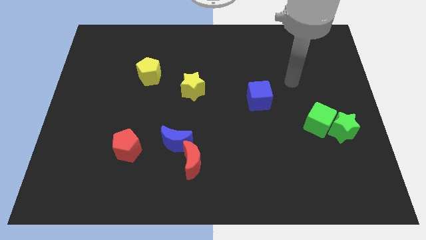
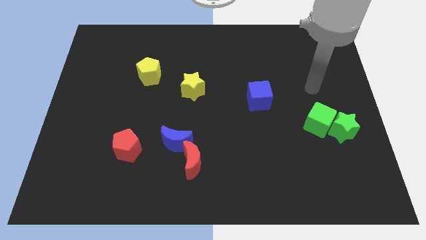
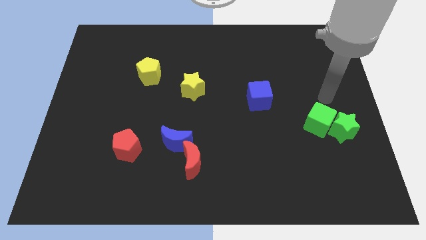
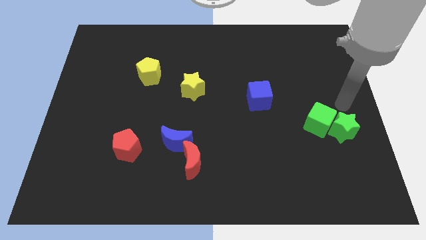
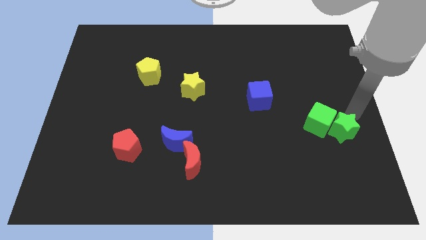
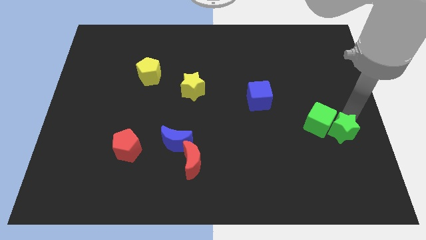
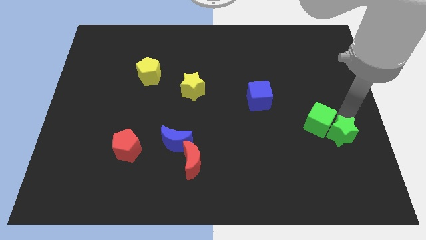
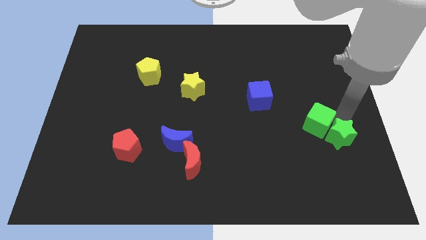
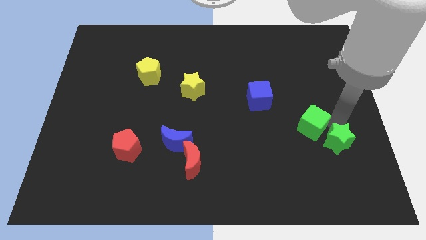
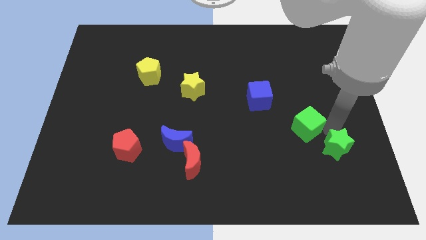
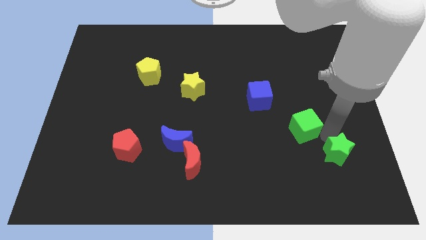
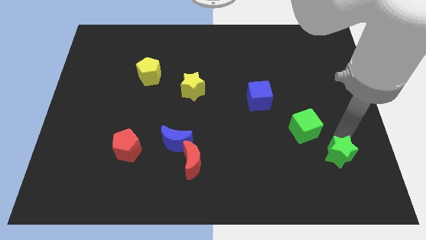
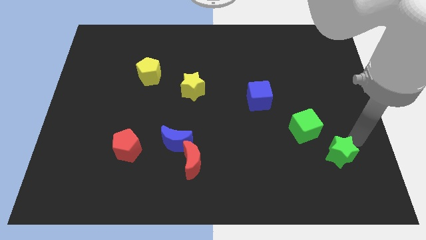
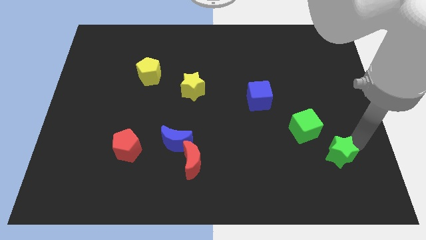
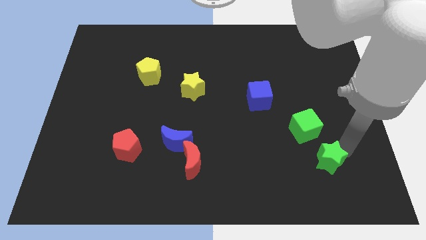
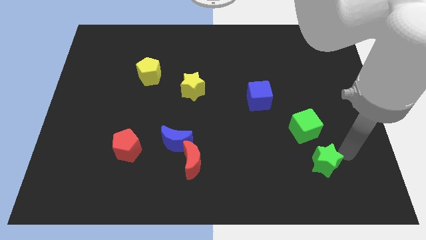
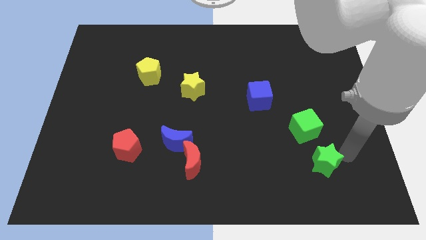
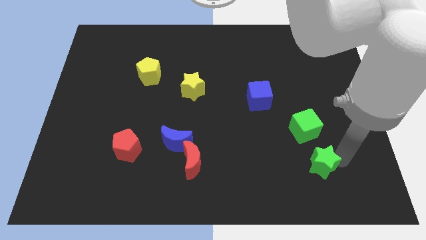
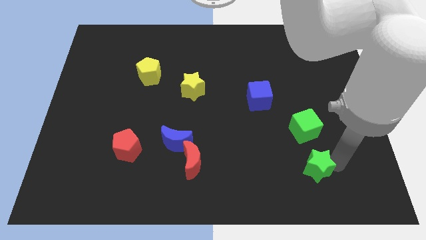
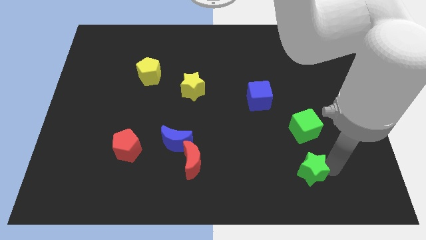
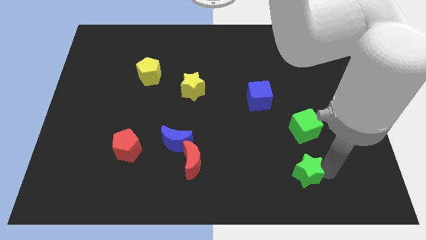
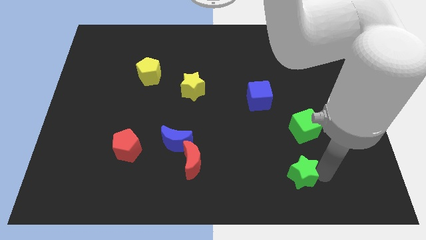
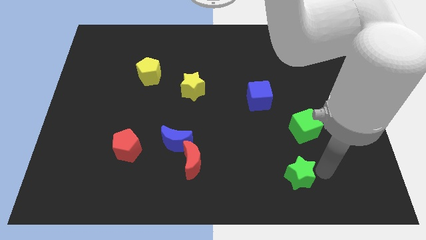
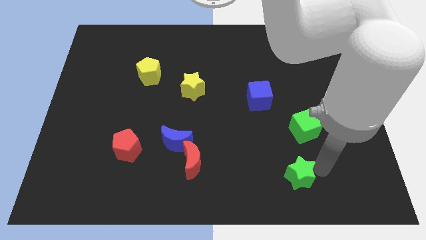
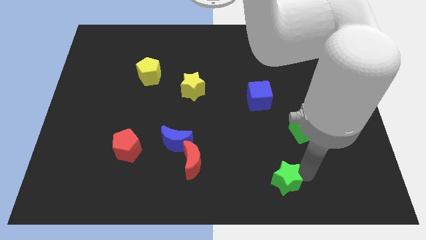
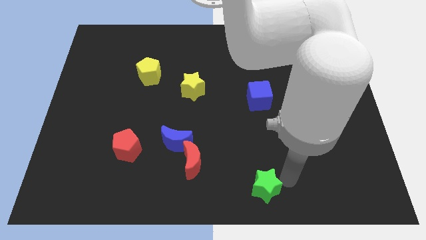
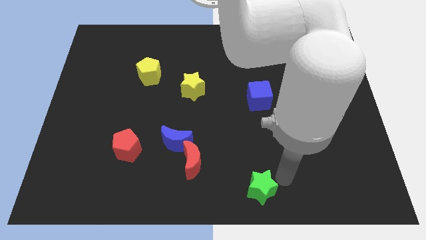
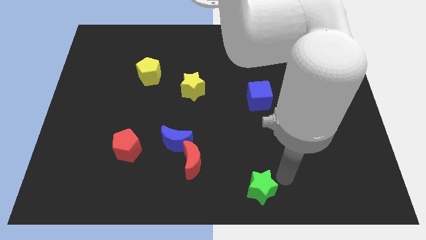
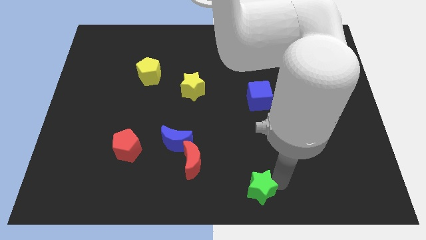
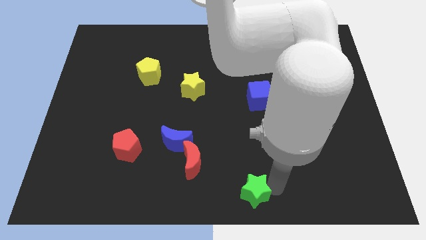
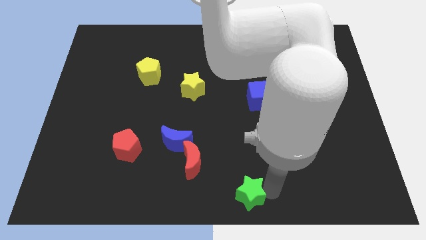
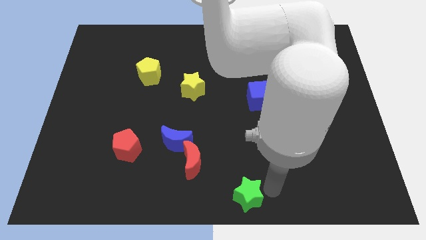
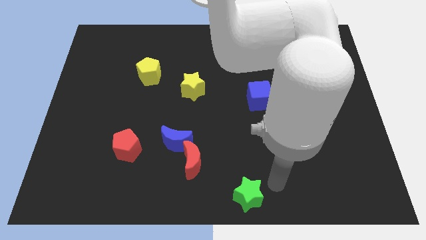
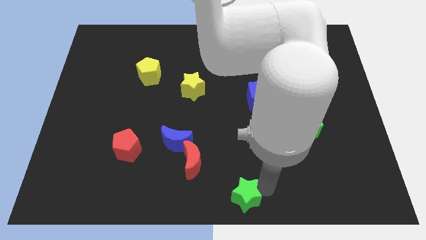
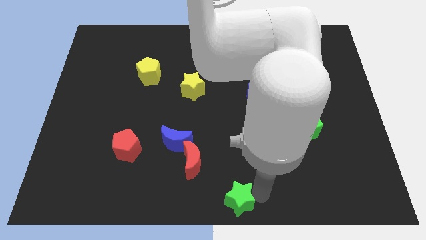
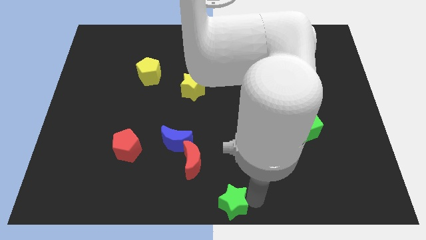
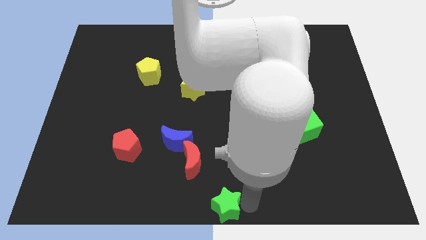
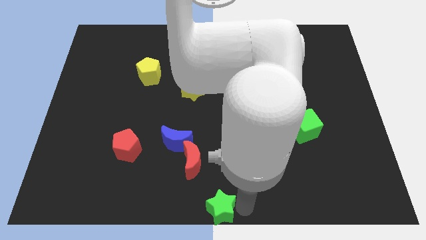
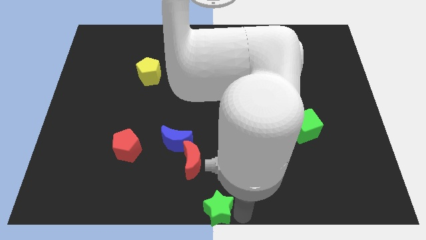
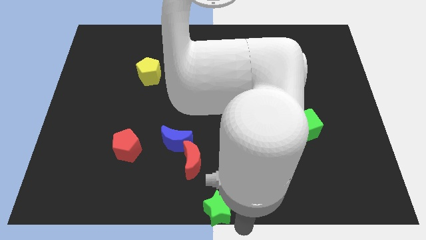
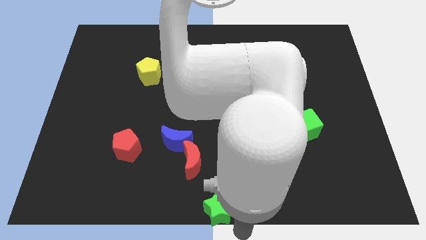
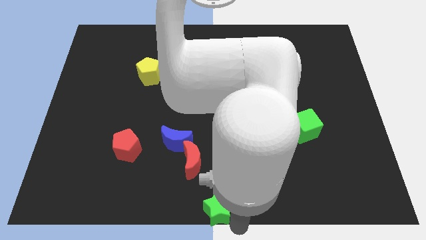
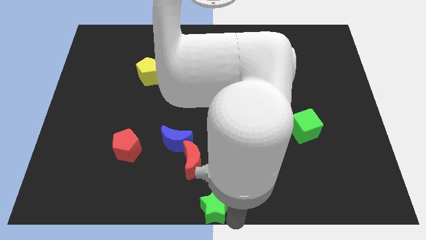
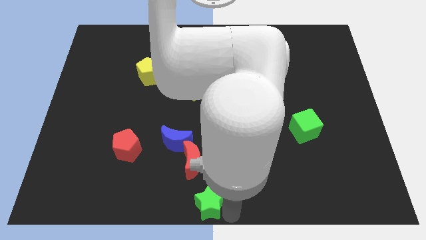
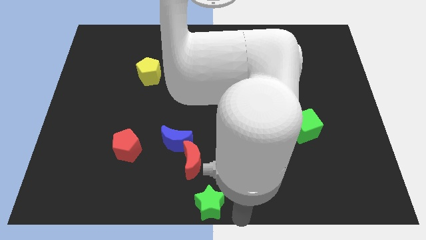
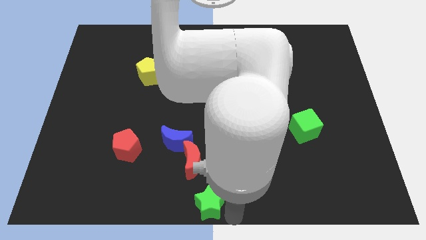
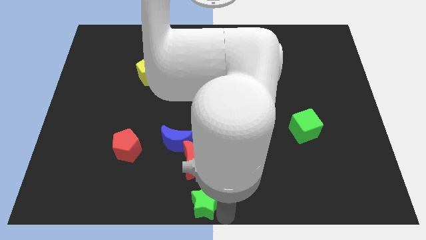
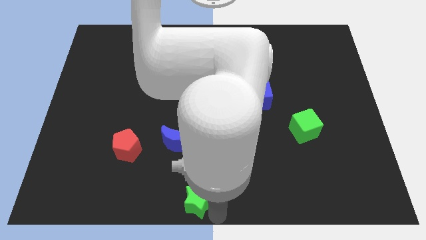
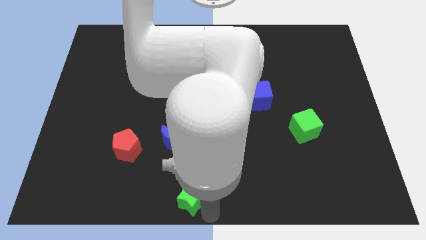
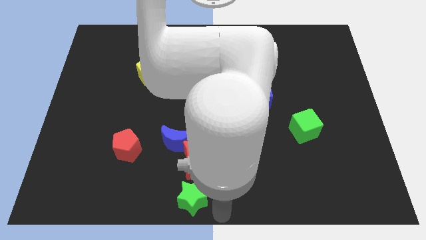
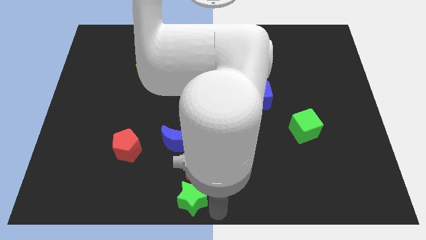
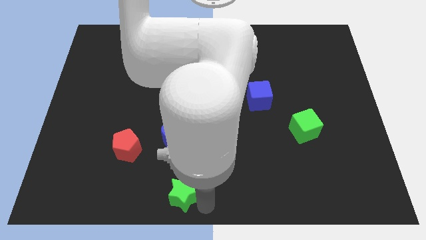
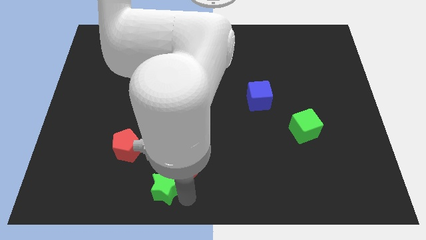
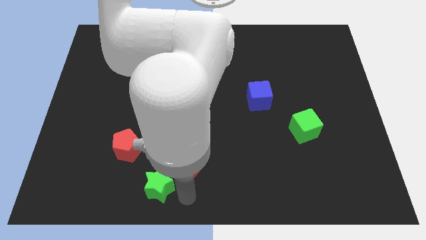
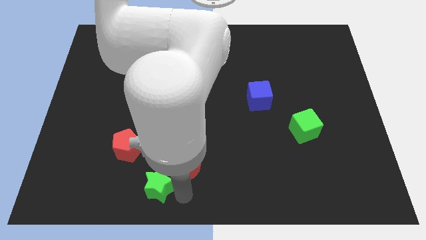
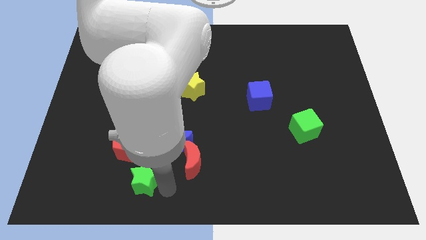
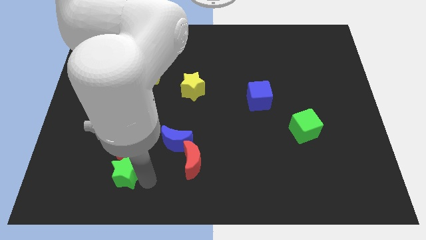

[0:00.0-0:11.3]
move the green star diagonally down and to the left of the red pentagon

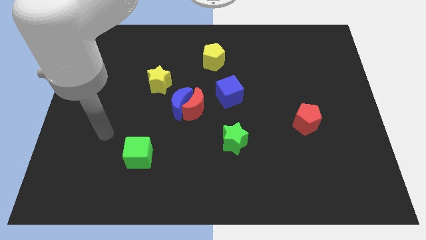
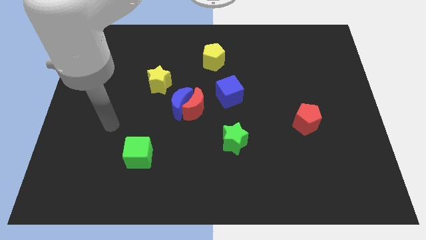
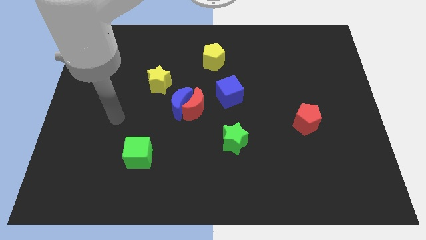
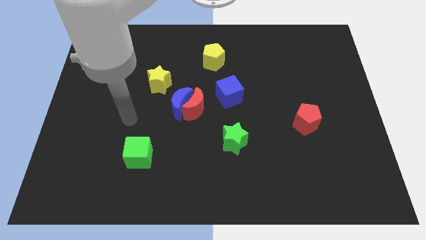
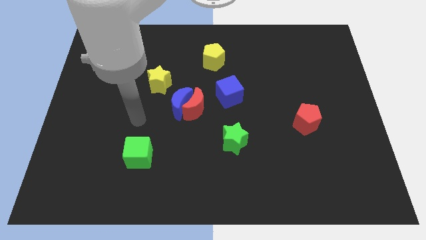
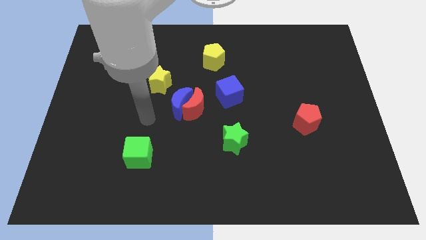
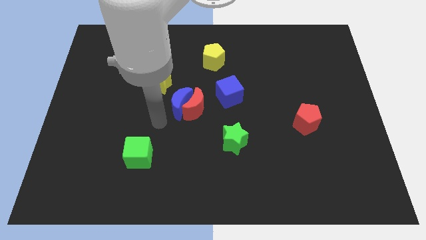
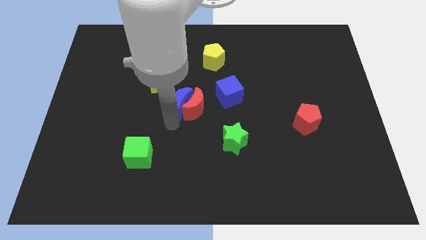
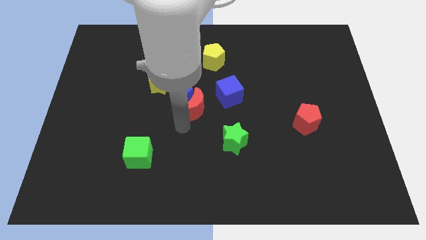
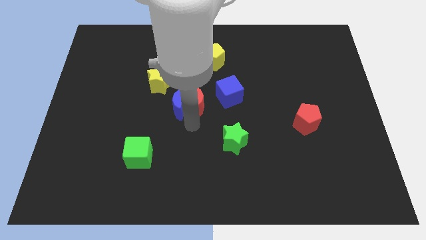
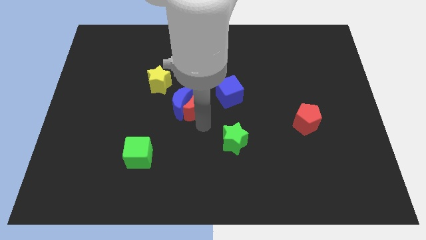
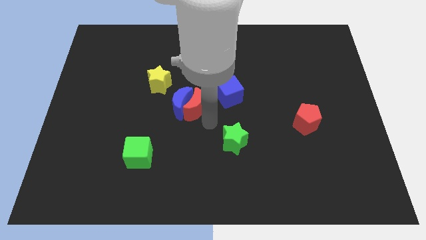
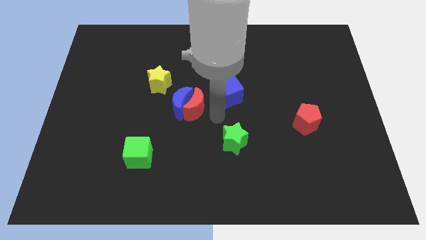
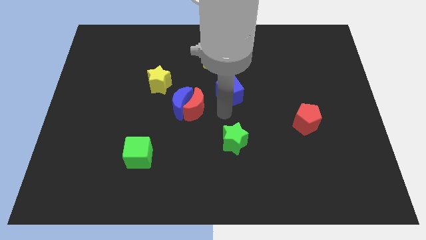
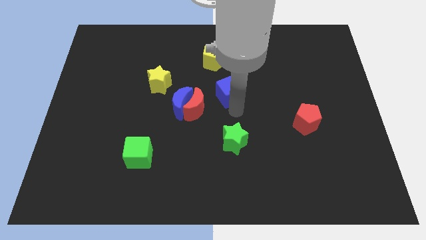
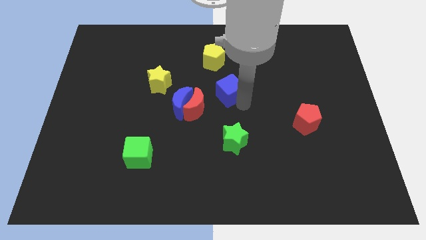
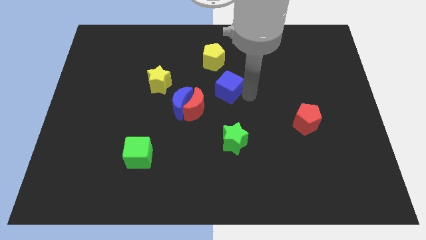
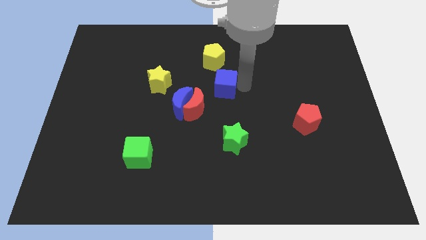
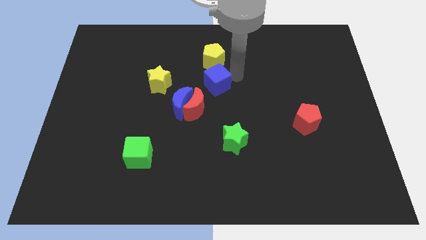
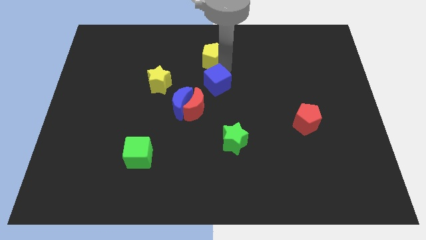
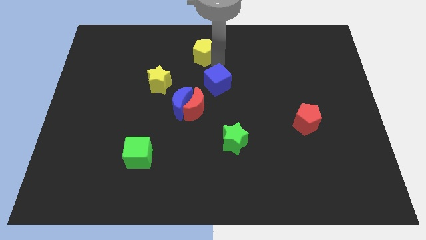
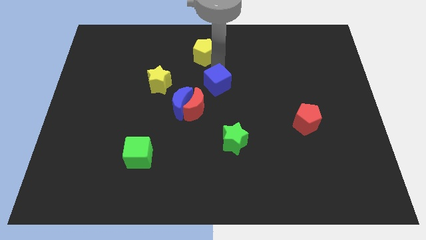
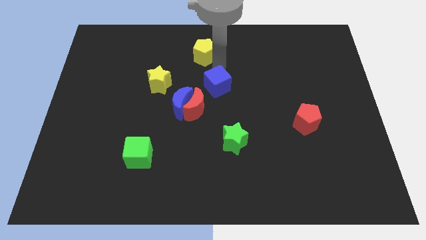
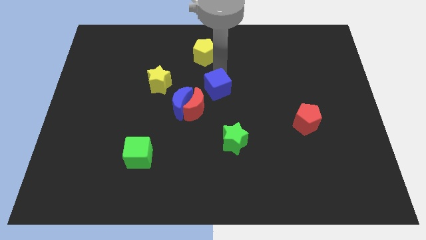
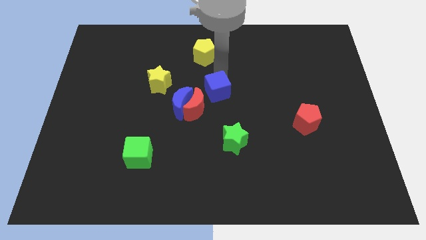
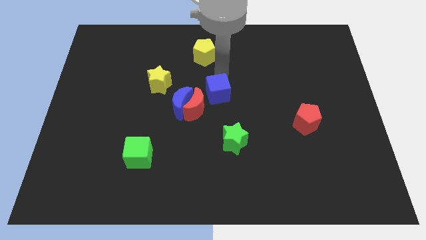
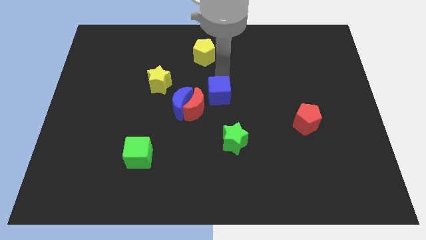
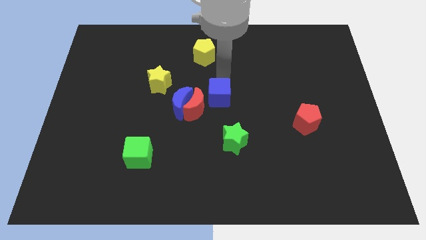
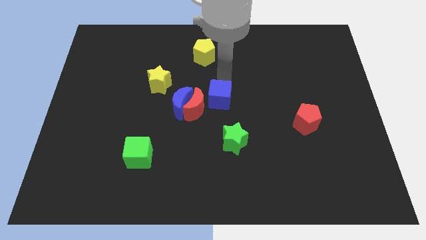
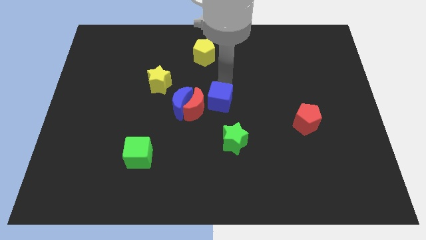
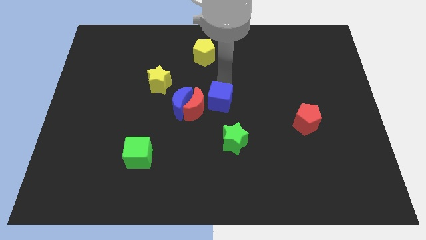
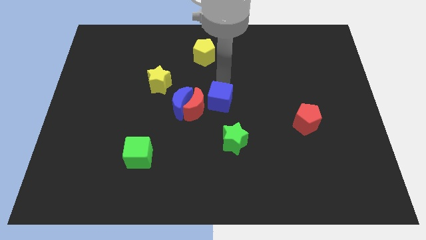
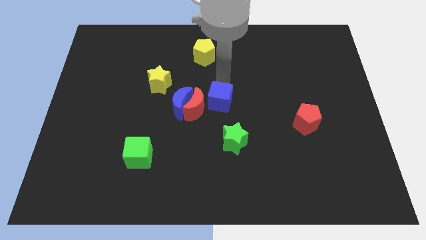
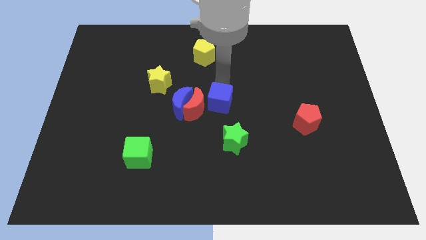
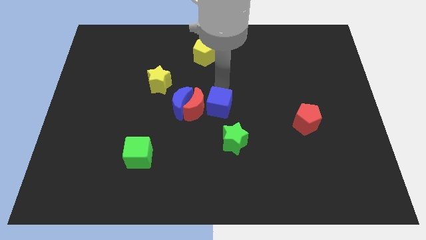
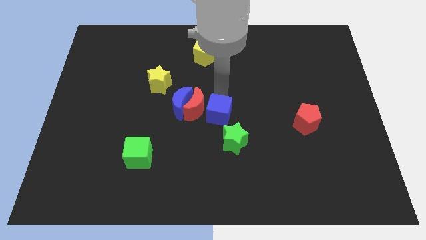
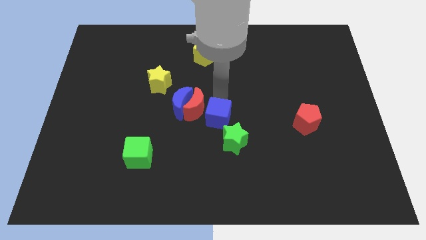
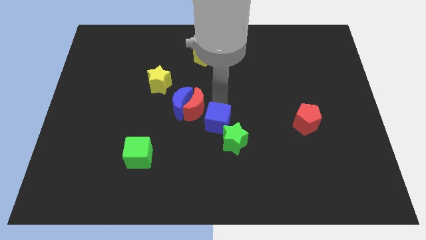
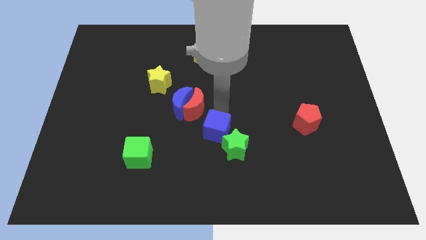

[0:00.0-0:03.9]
put the blue cube to the bottom of the red moon
